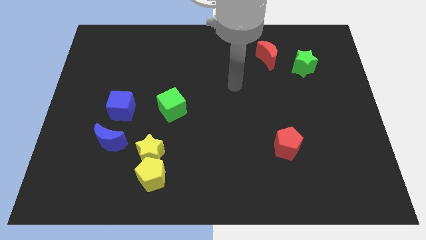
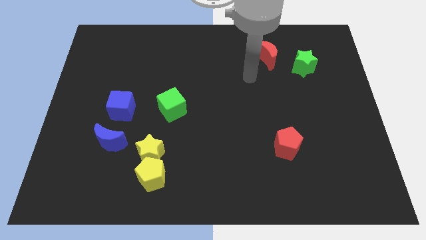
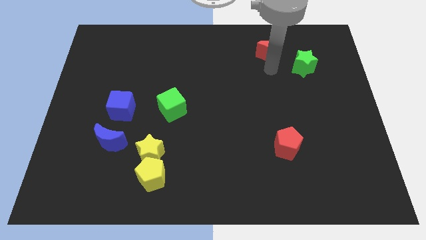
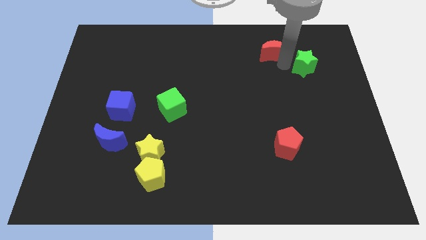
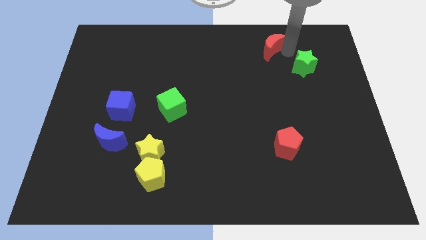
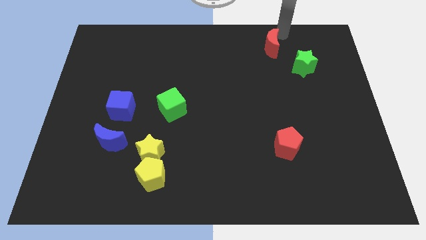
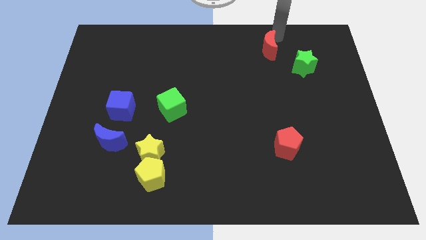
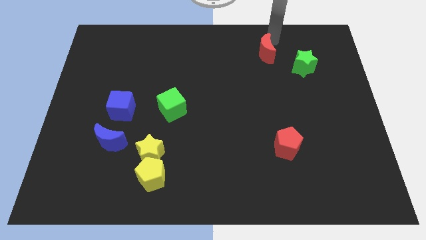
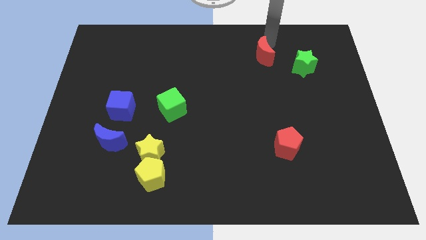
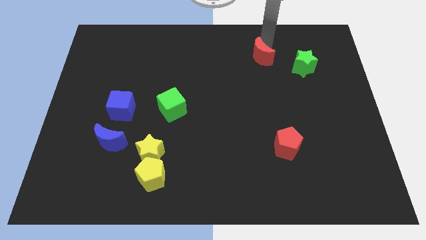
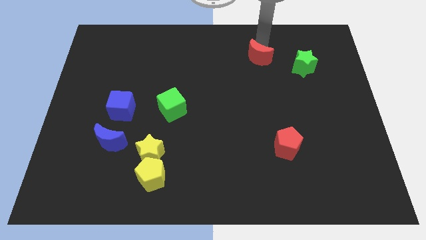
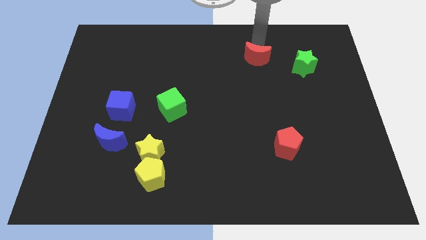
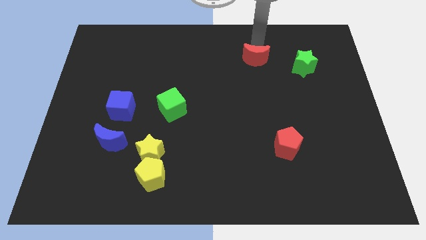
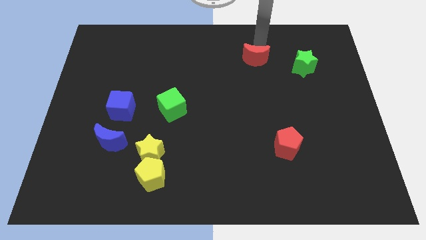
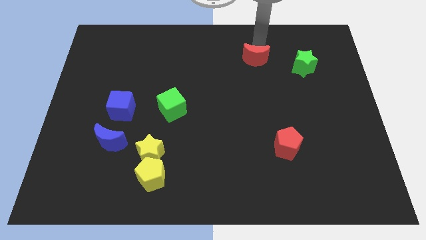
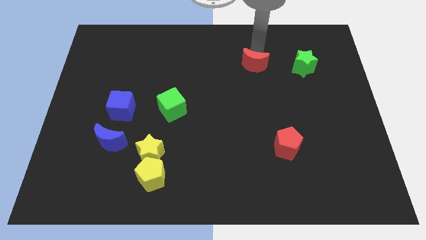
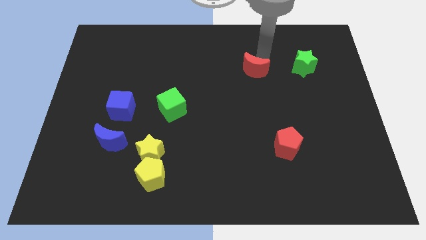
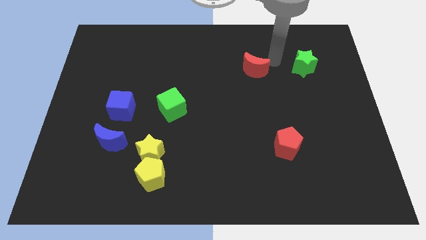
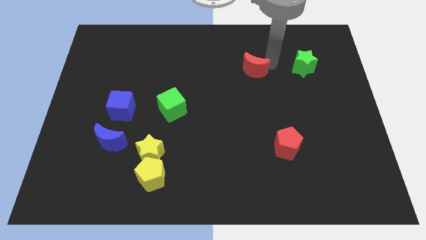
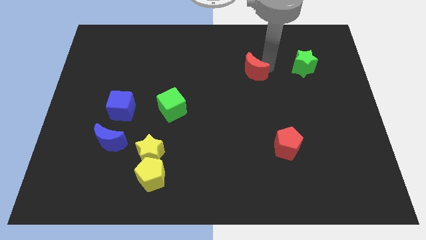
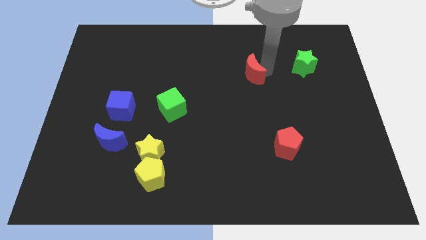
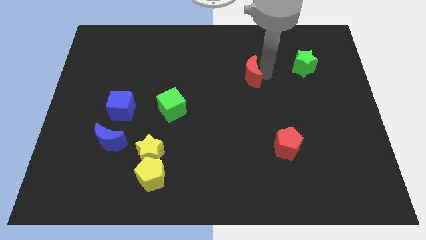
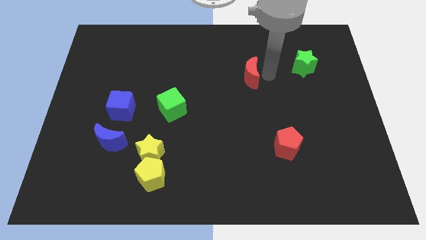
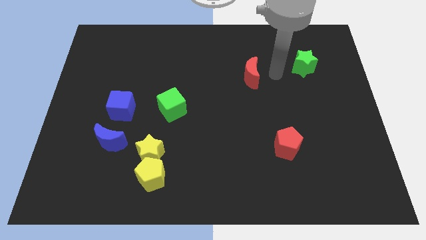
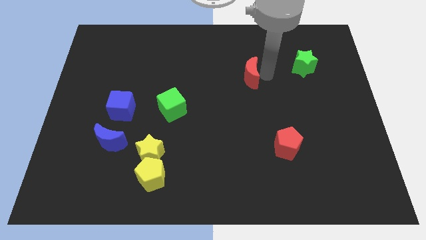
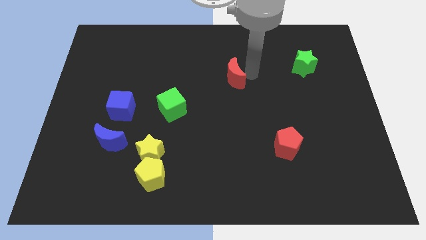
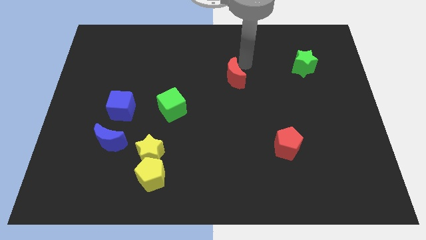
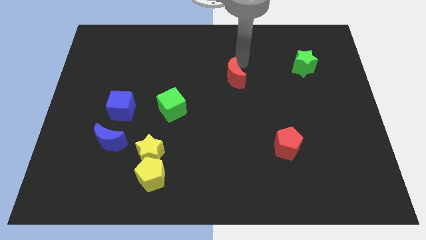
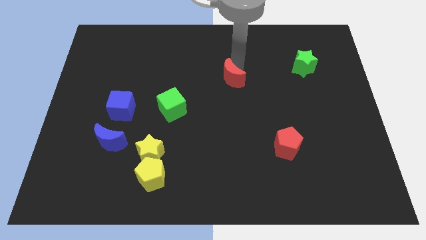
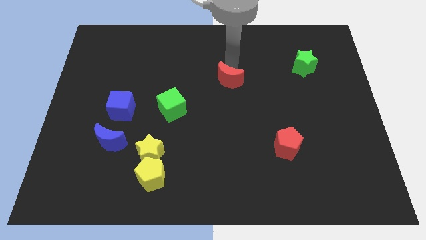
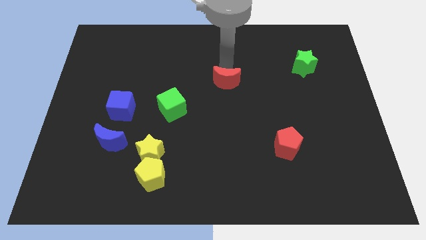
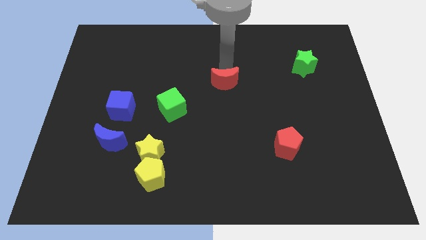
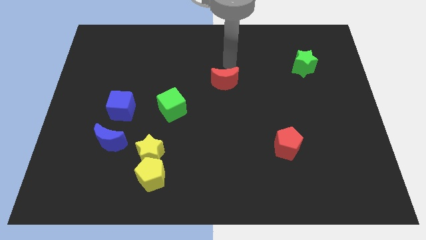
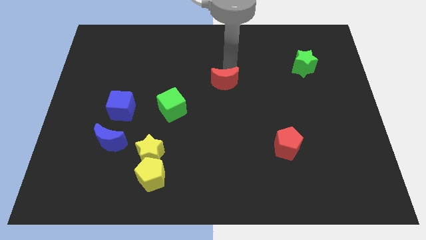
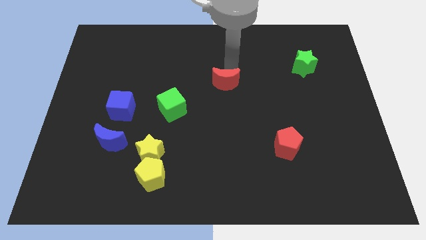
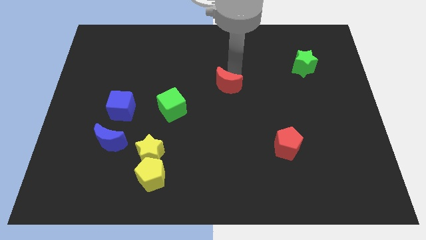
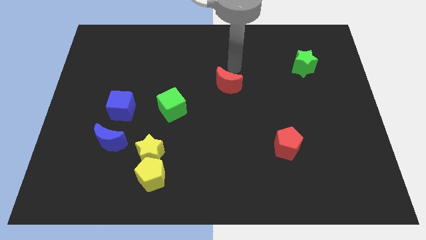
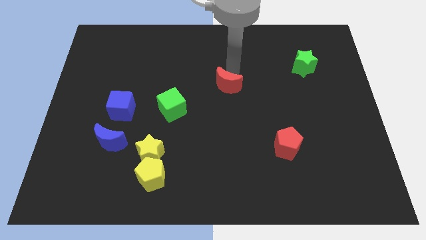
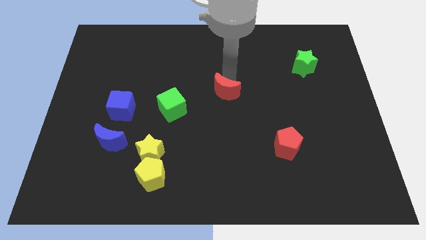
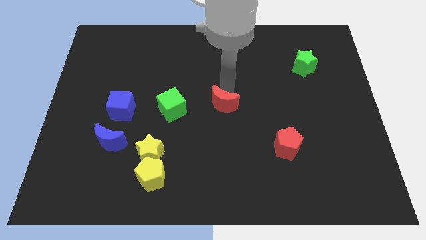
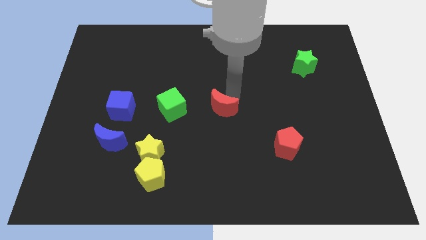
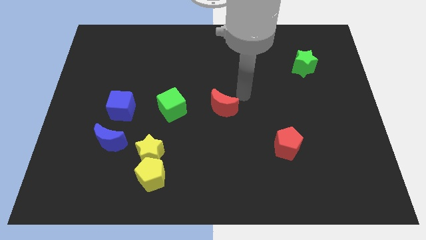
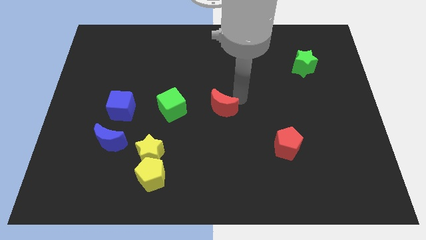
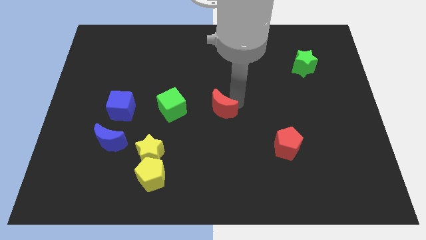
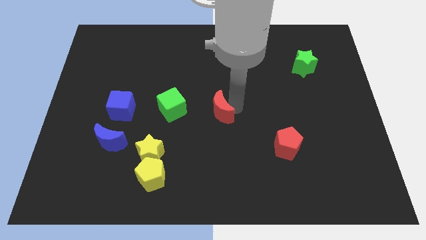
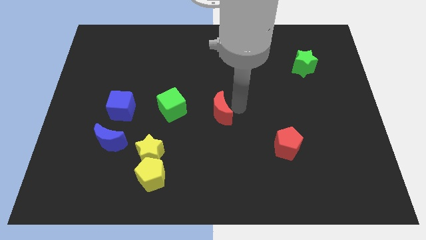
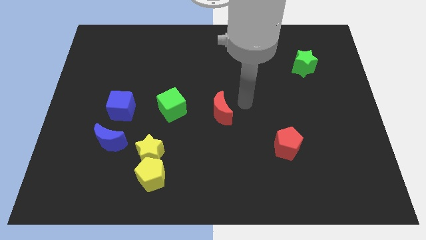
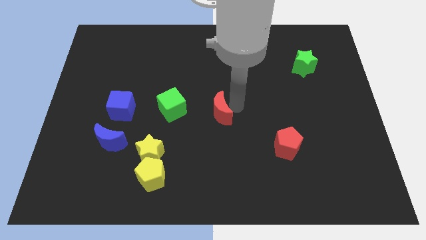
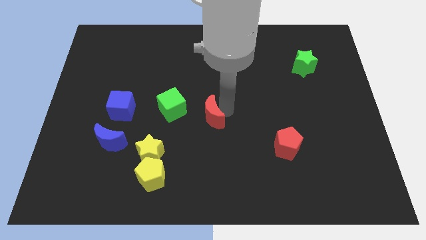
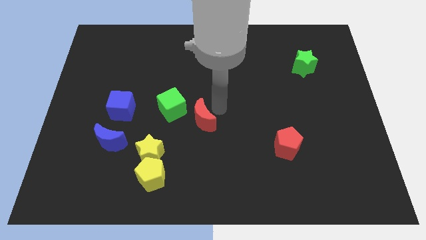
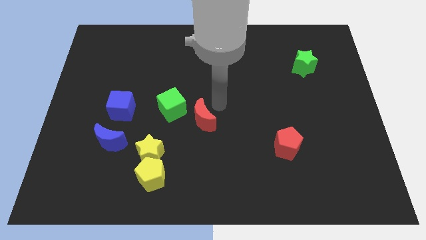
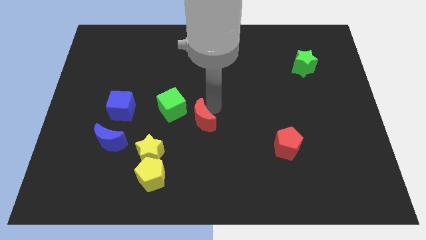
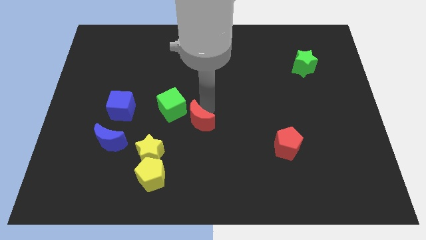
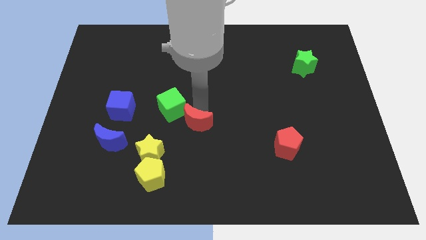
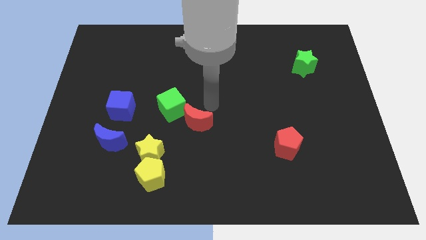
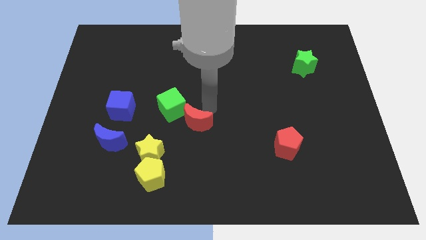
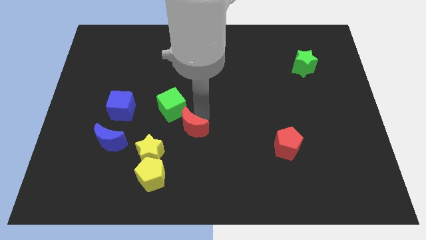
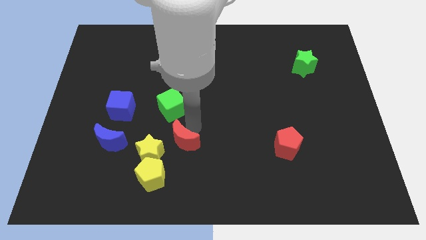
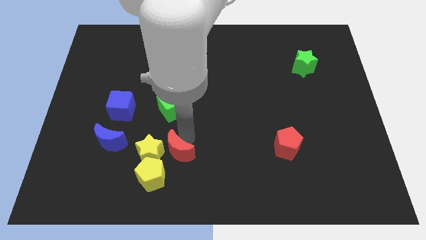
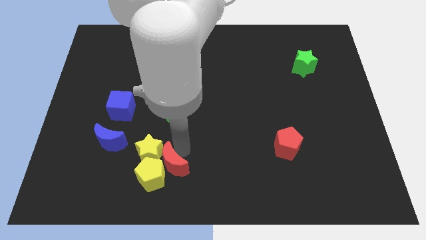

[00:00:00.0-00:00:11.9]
push the red moon towards the yellow pentagon

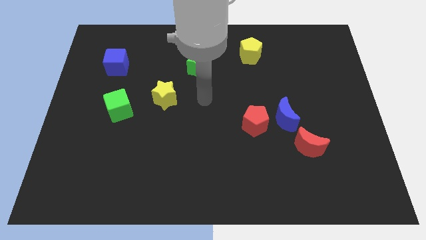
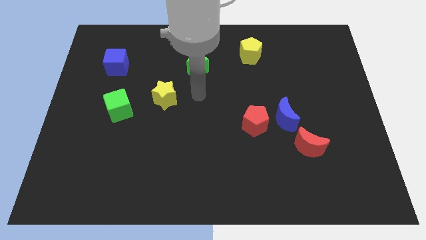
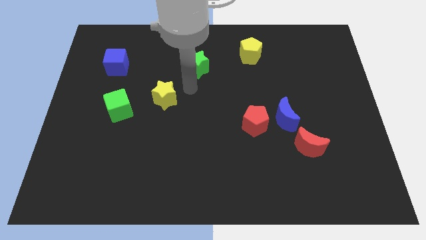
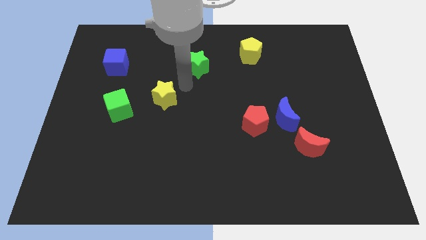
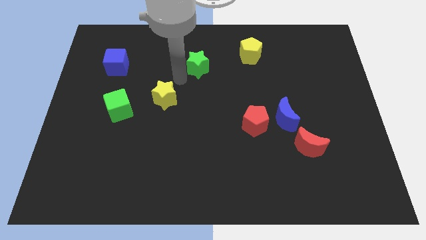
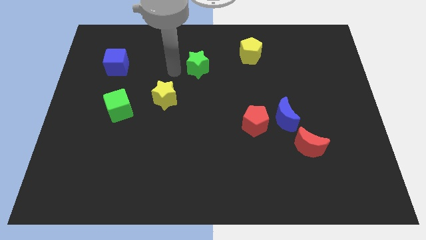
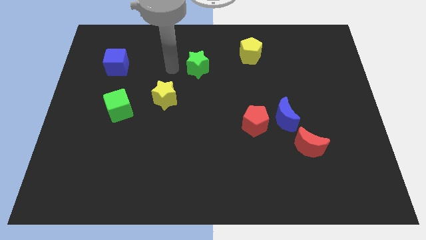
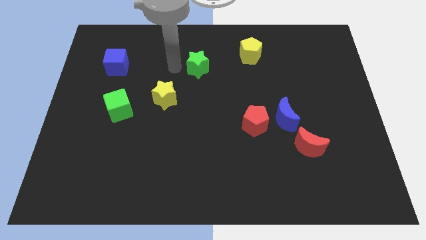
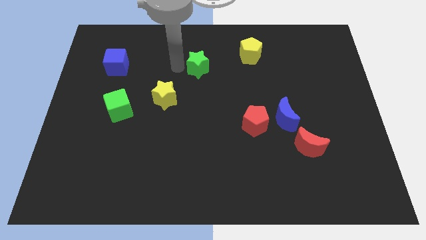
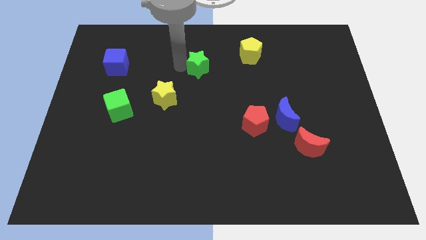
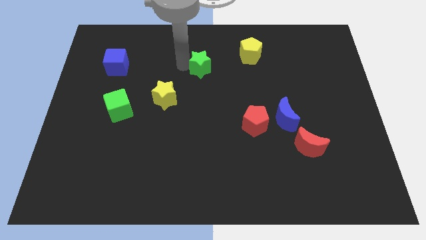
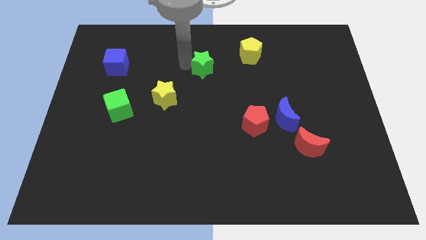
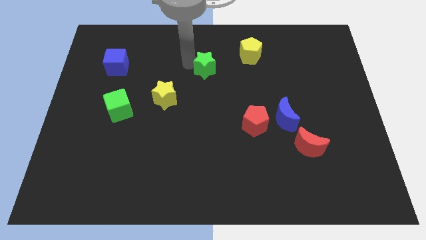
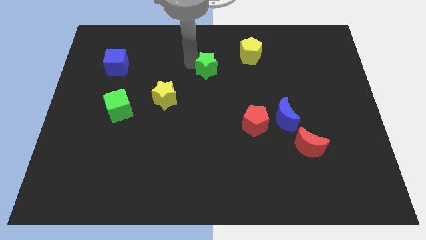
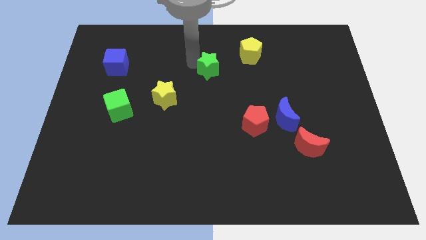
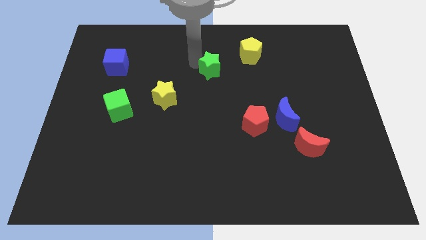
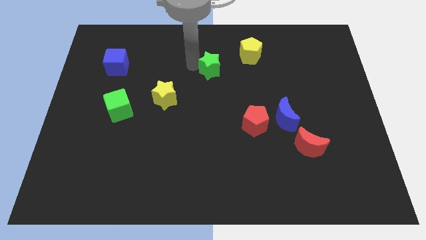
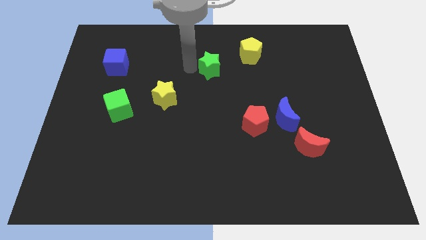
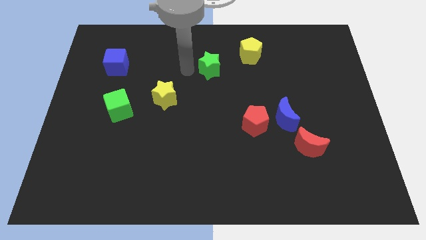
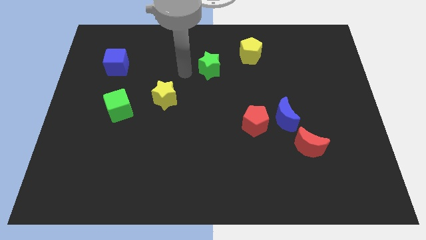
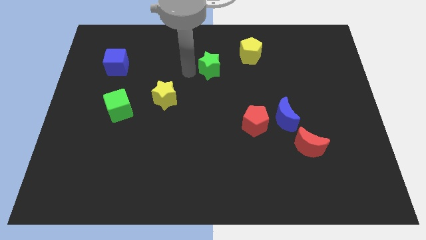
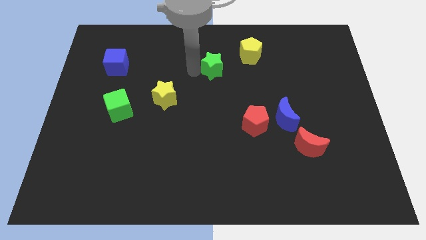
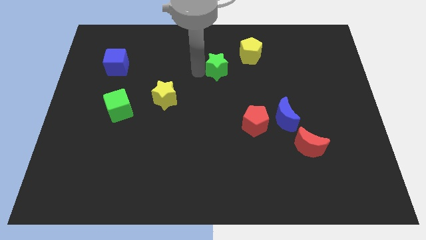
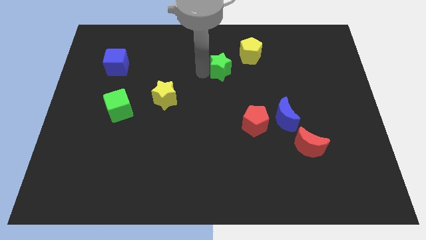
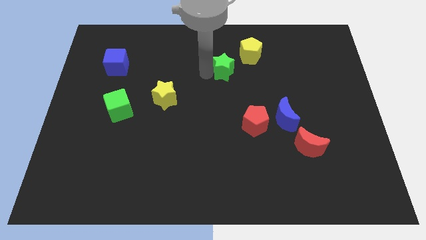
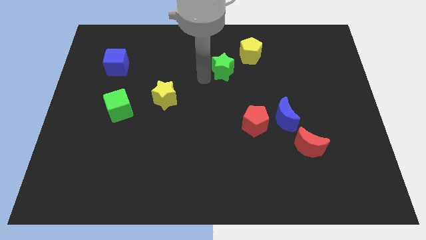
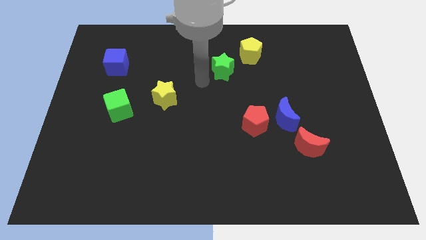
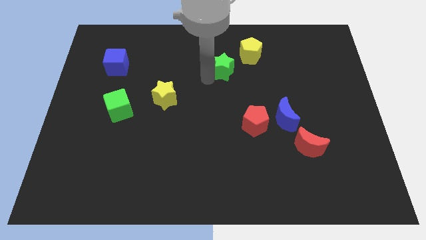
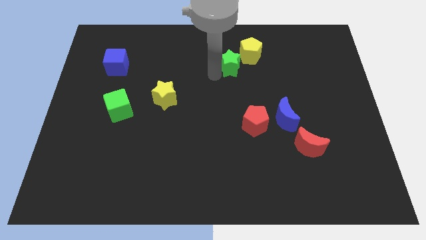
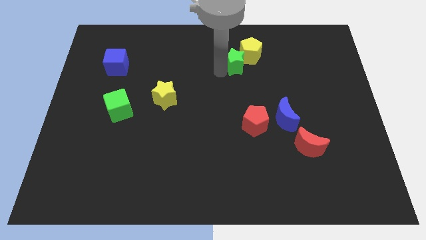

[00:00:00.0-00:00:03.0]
put the green star to the yellow pentagon
